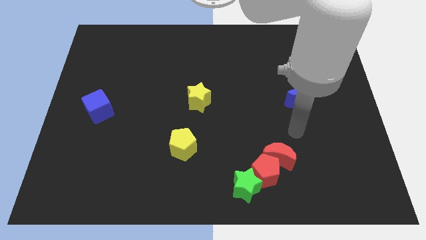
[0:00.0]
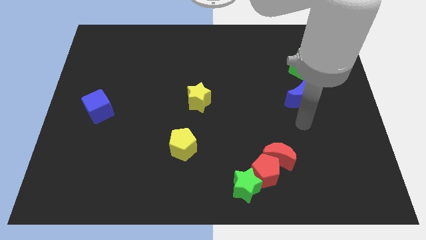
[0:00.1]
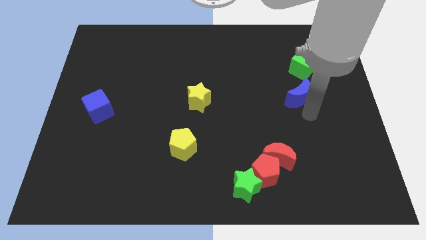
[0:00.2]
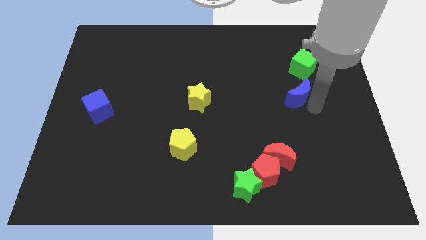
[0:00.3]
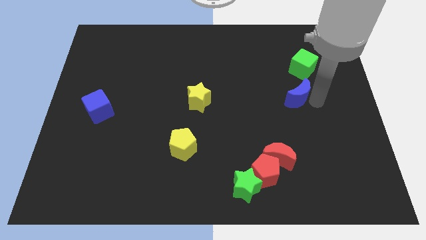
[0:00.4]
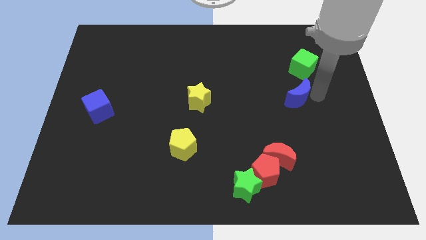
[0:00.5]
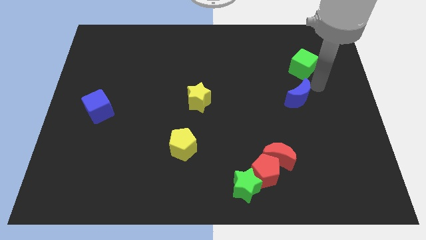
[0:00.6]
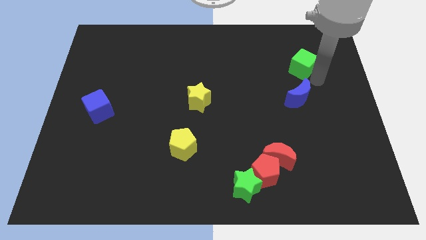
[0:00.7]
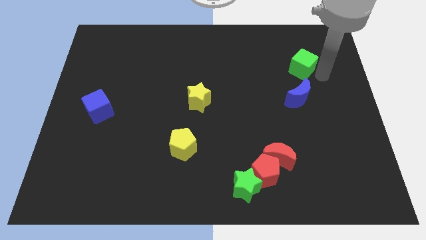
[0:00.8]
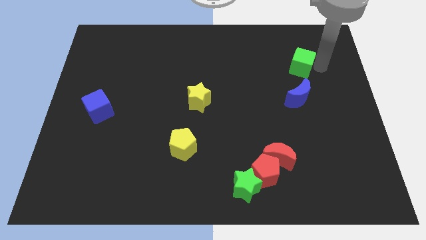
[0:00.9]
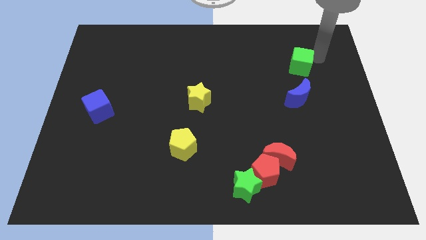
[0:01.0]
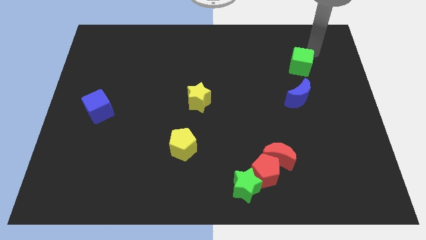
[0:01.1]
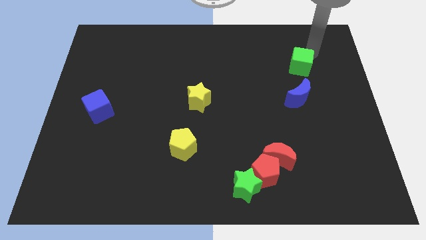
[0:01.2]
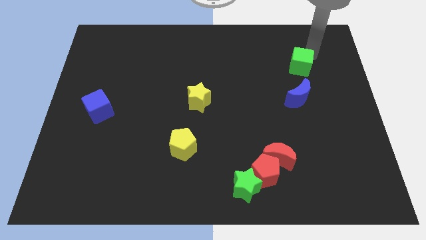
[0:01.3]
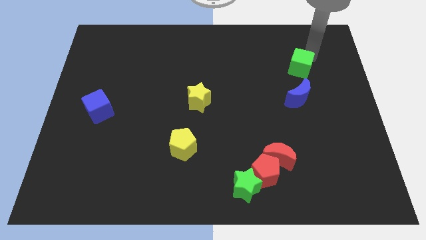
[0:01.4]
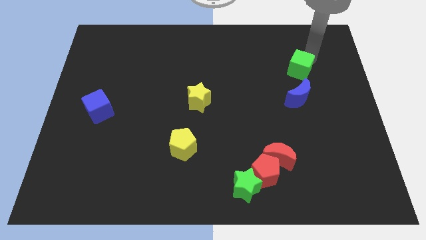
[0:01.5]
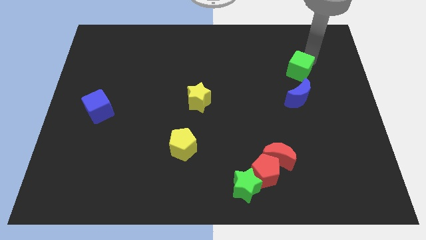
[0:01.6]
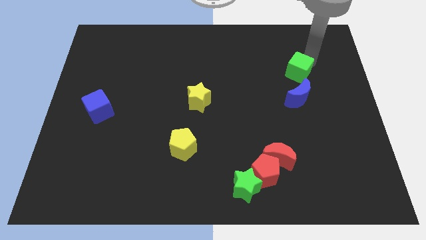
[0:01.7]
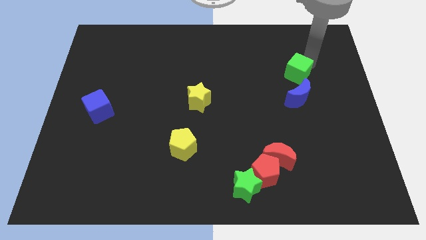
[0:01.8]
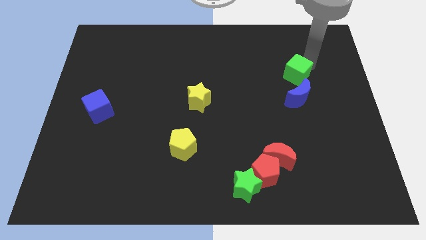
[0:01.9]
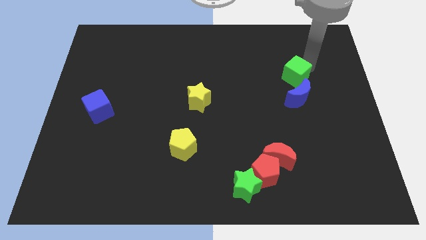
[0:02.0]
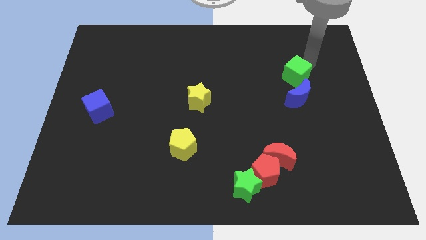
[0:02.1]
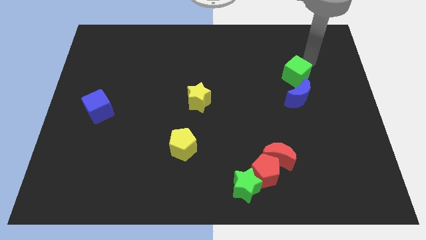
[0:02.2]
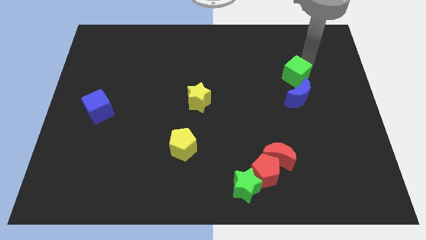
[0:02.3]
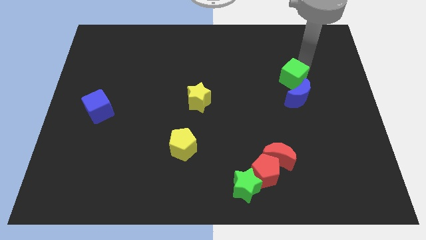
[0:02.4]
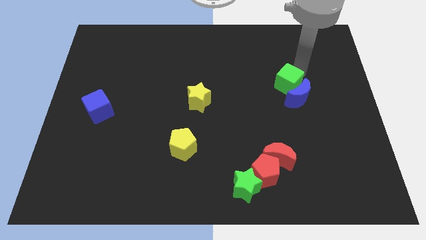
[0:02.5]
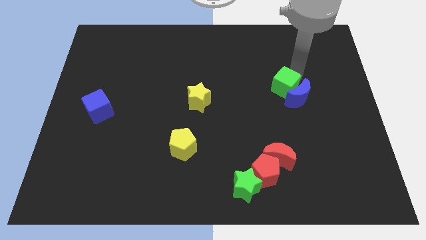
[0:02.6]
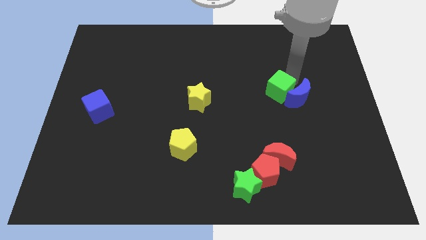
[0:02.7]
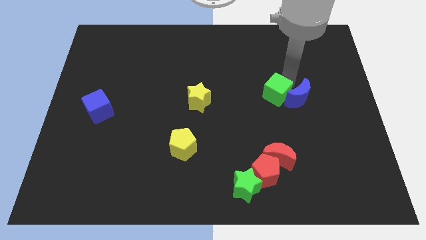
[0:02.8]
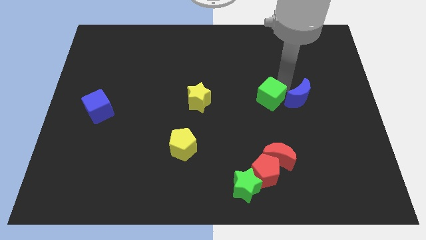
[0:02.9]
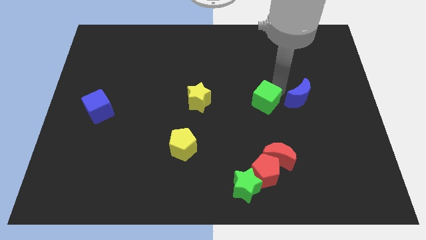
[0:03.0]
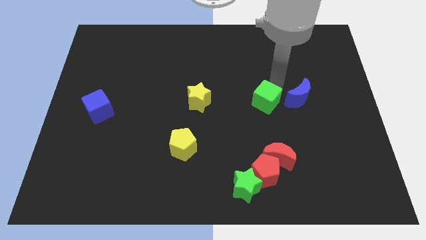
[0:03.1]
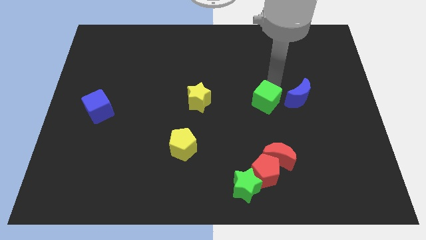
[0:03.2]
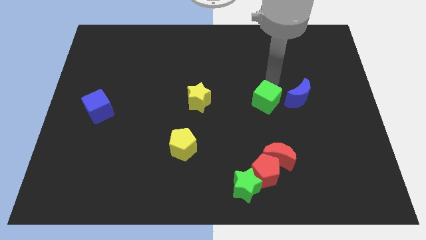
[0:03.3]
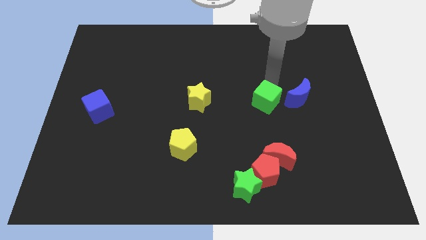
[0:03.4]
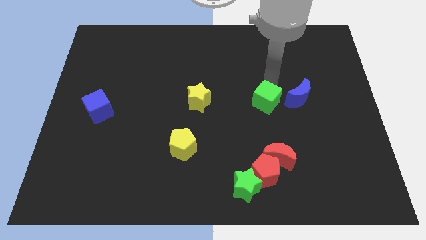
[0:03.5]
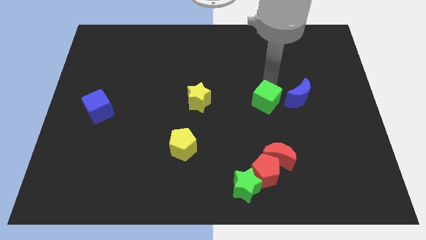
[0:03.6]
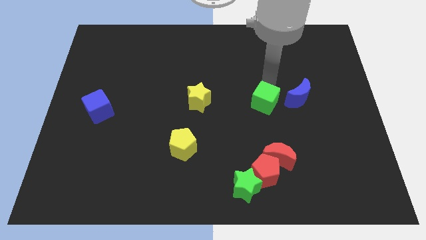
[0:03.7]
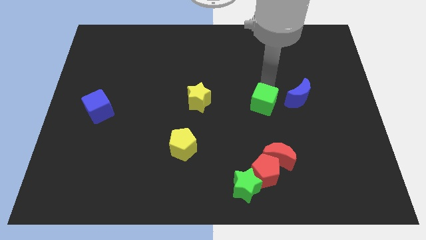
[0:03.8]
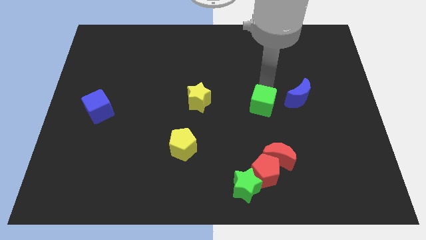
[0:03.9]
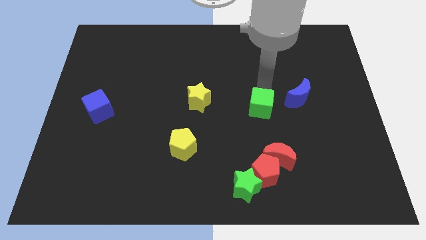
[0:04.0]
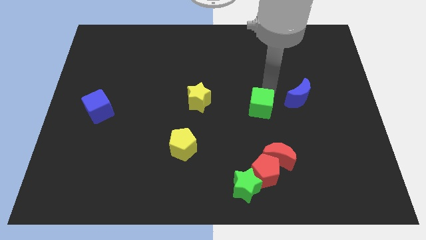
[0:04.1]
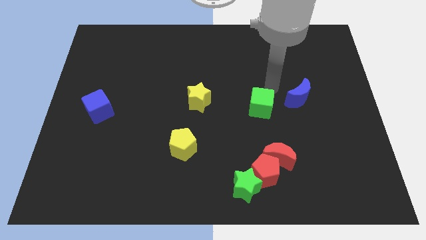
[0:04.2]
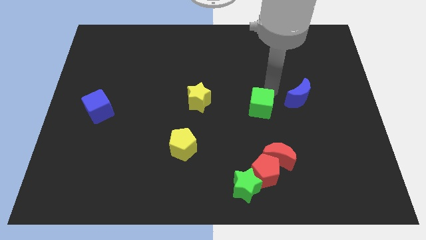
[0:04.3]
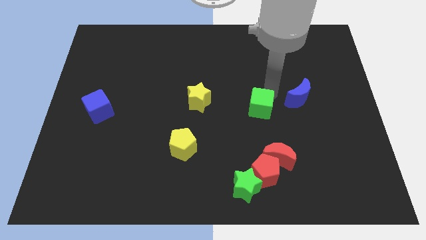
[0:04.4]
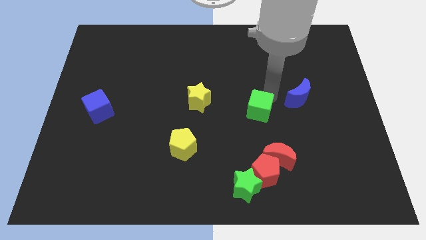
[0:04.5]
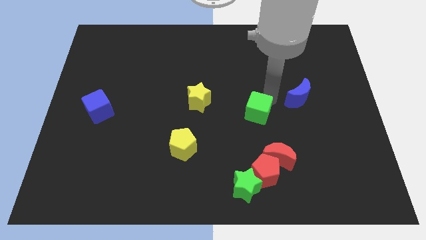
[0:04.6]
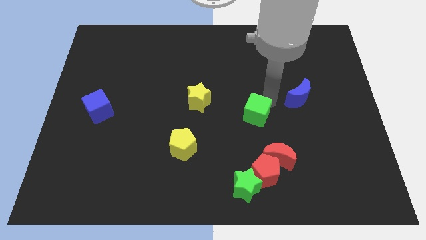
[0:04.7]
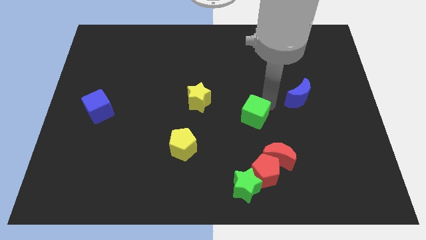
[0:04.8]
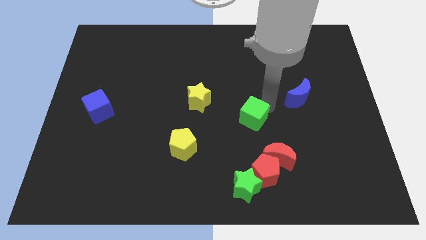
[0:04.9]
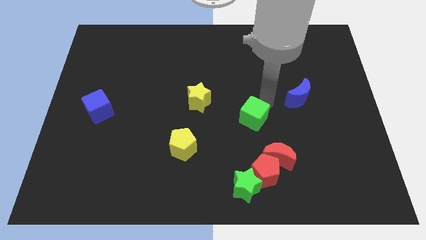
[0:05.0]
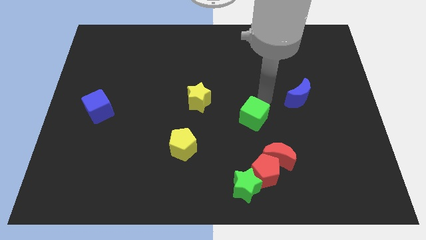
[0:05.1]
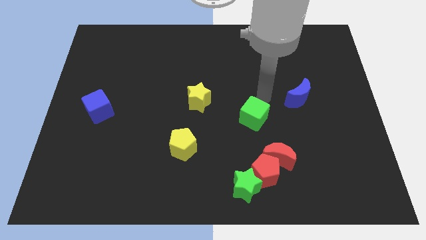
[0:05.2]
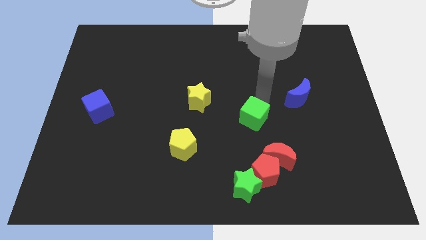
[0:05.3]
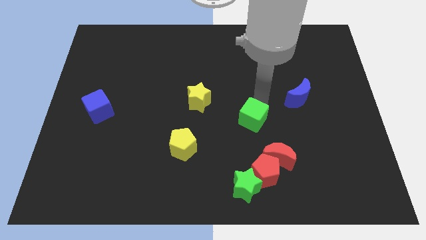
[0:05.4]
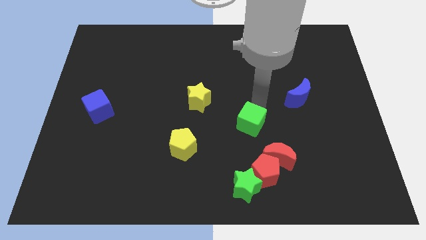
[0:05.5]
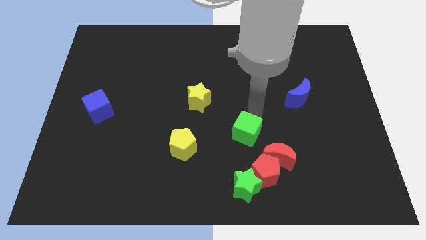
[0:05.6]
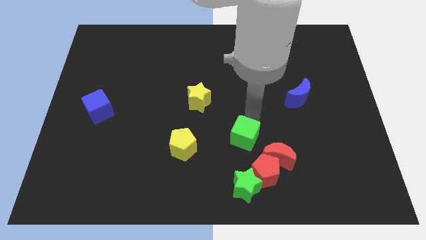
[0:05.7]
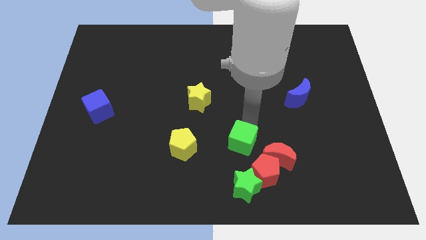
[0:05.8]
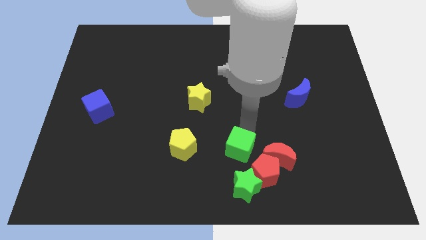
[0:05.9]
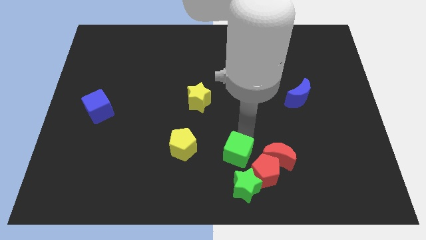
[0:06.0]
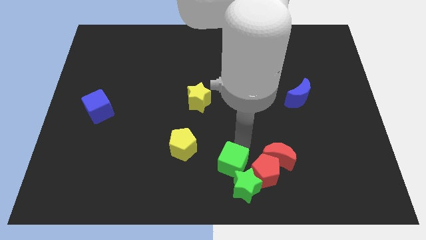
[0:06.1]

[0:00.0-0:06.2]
move the green cube to the bottom
